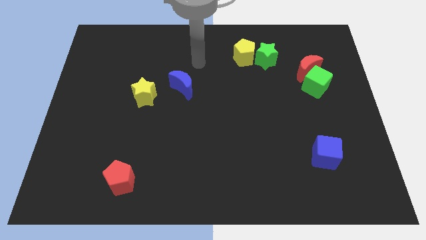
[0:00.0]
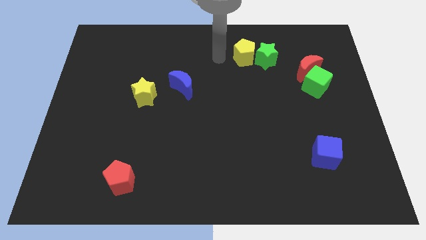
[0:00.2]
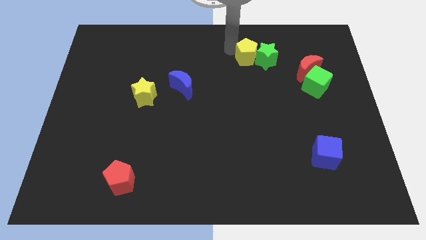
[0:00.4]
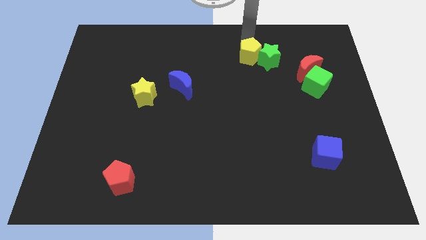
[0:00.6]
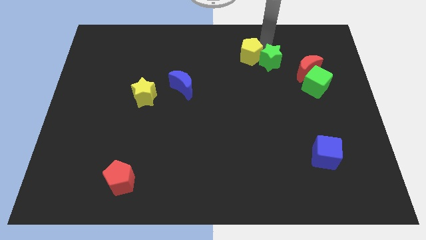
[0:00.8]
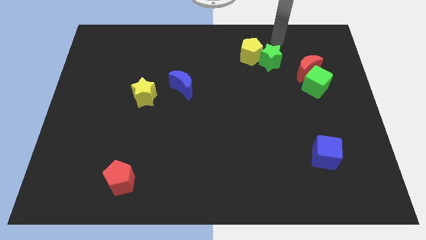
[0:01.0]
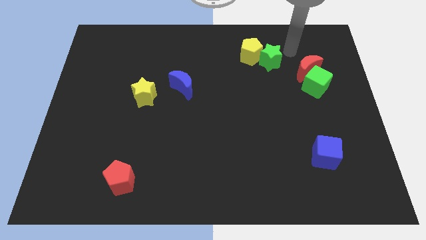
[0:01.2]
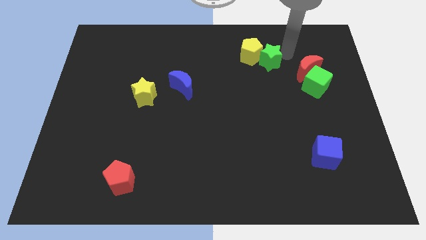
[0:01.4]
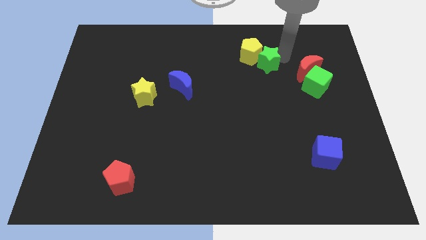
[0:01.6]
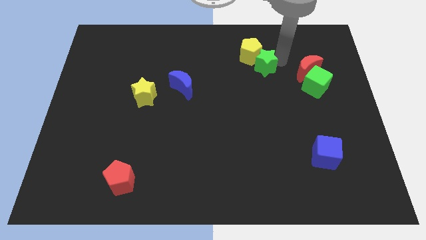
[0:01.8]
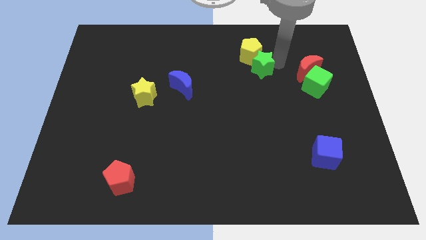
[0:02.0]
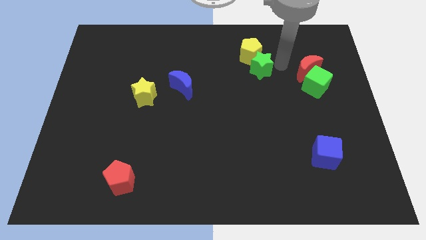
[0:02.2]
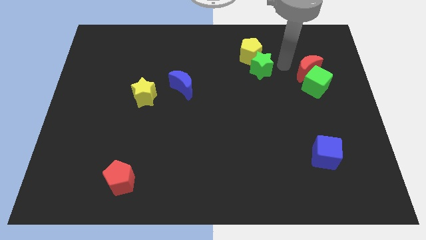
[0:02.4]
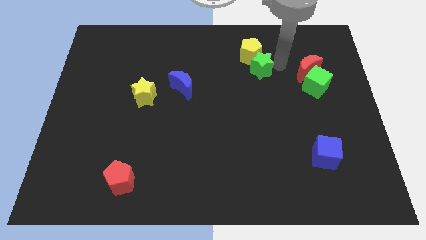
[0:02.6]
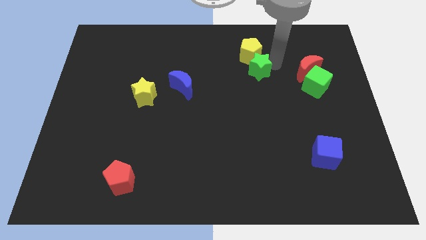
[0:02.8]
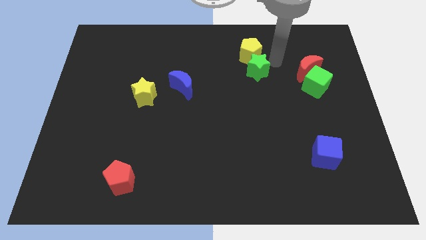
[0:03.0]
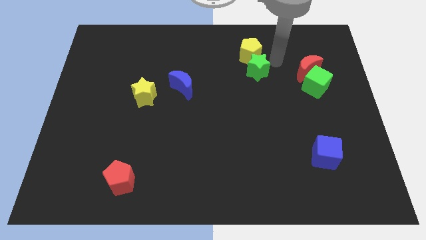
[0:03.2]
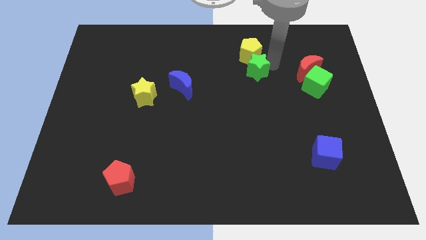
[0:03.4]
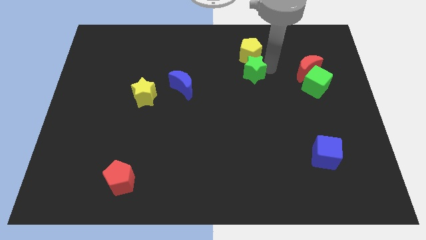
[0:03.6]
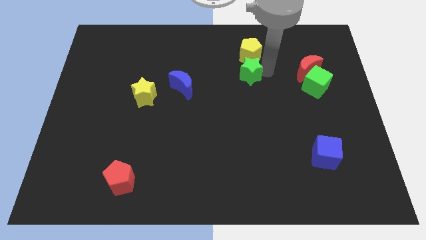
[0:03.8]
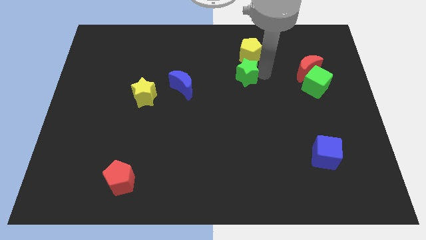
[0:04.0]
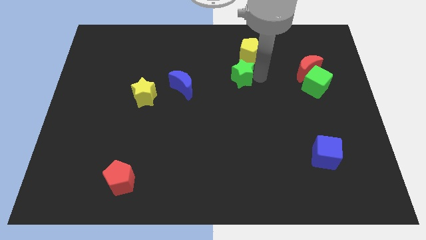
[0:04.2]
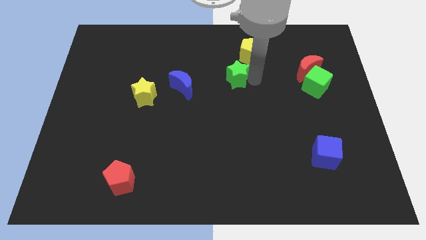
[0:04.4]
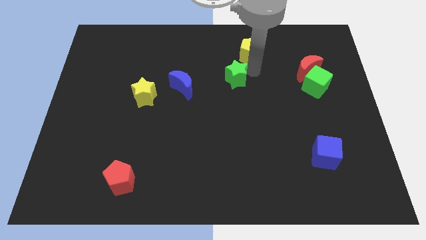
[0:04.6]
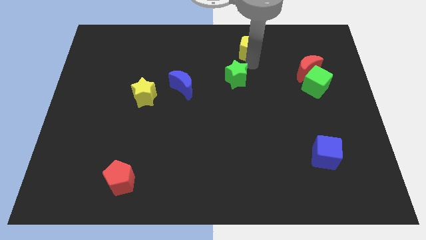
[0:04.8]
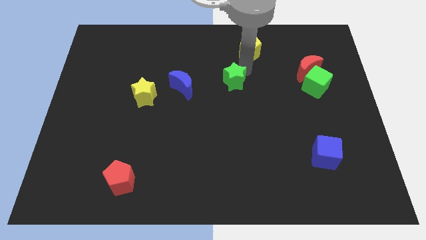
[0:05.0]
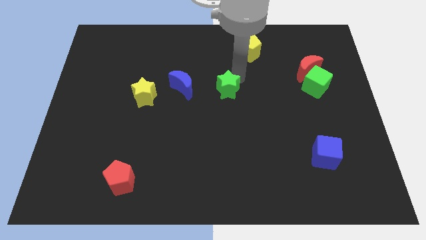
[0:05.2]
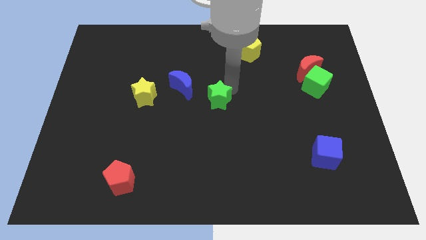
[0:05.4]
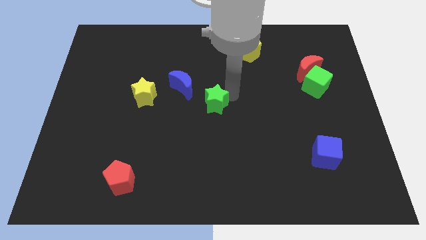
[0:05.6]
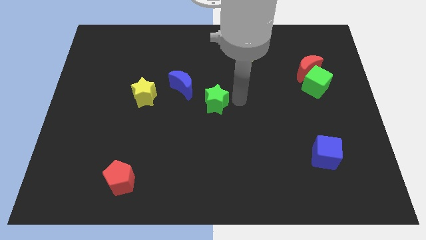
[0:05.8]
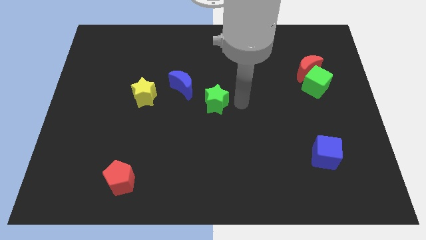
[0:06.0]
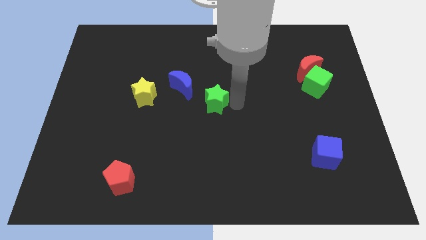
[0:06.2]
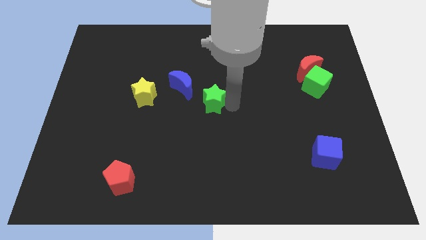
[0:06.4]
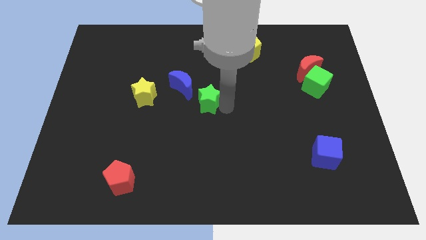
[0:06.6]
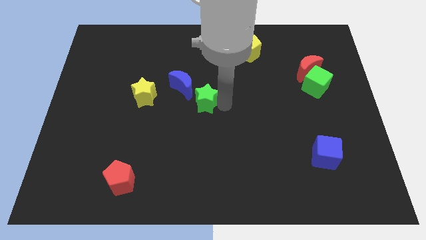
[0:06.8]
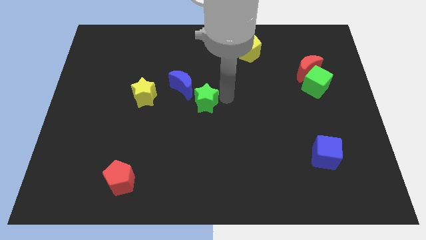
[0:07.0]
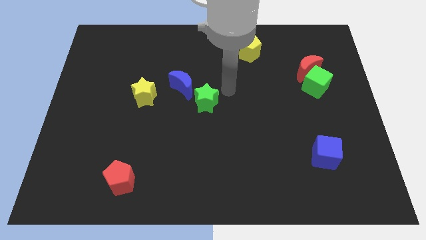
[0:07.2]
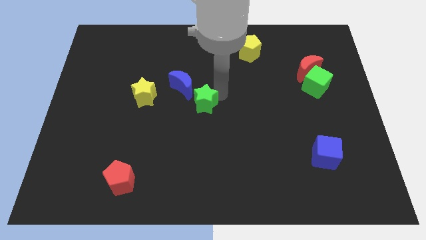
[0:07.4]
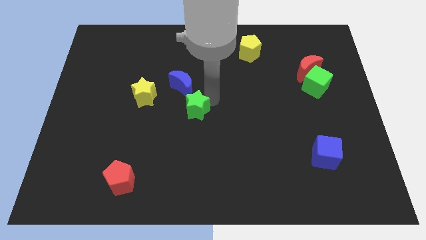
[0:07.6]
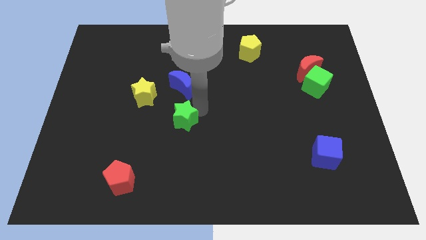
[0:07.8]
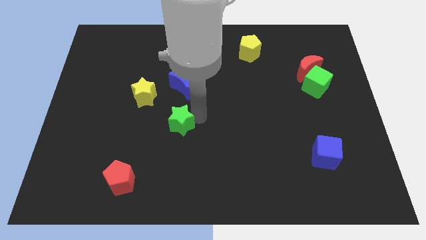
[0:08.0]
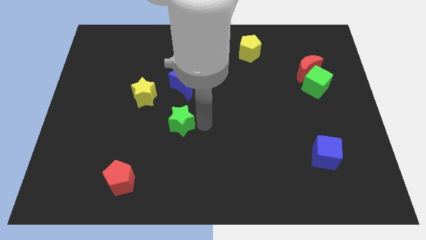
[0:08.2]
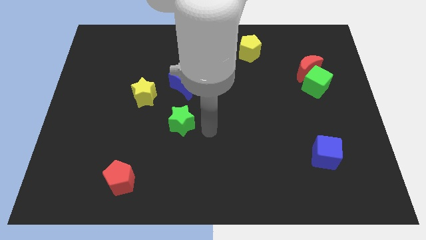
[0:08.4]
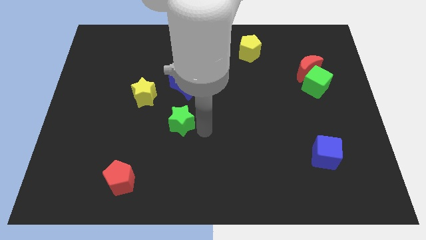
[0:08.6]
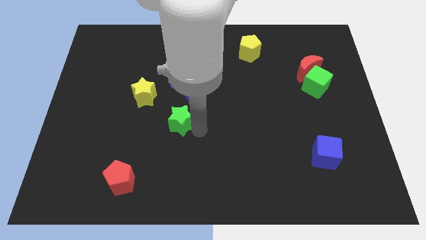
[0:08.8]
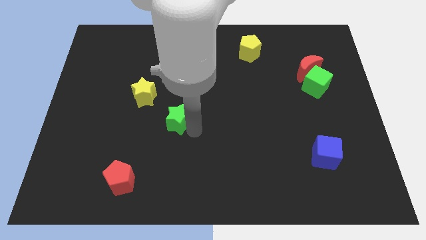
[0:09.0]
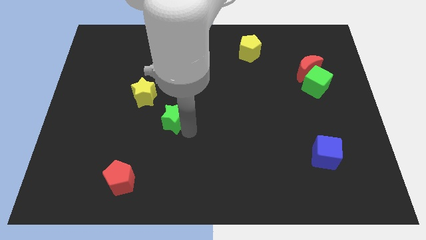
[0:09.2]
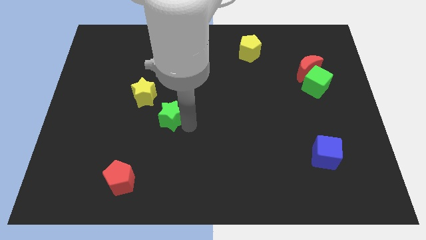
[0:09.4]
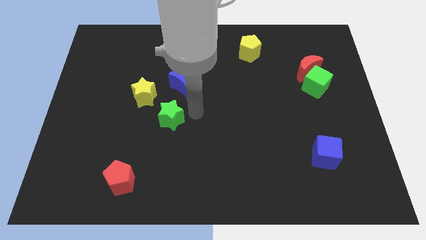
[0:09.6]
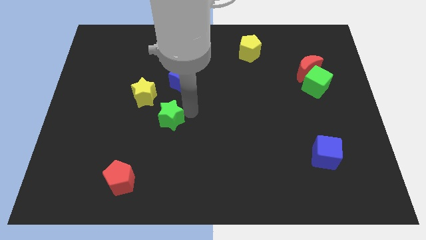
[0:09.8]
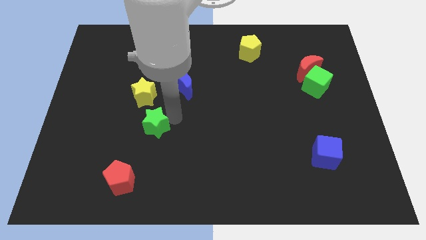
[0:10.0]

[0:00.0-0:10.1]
put the green star to the bottom of the yellow star

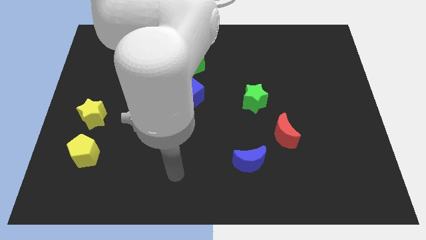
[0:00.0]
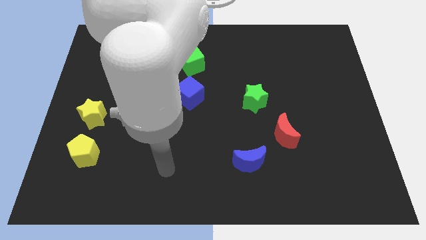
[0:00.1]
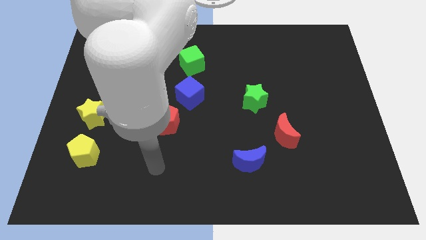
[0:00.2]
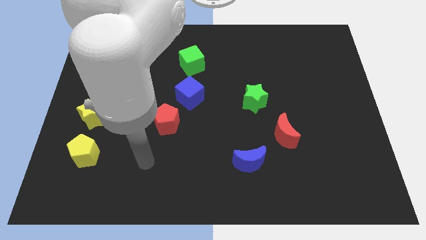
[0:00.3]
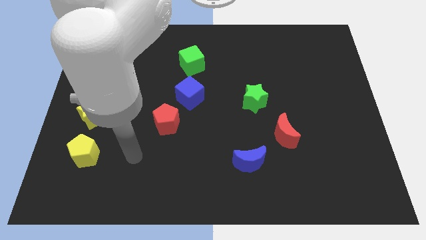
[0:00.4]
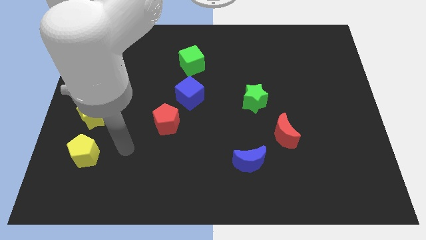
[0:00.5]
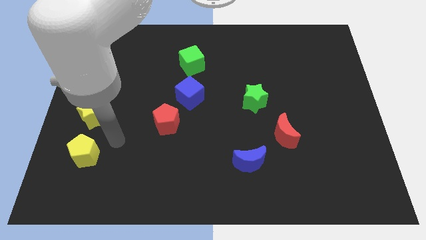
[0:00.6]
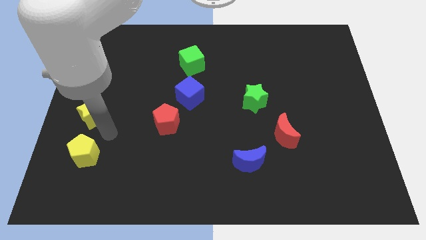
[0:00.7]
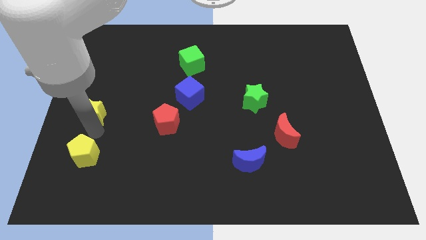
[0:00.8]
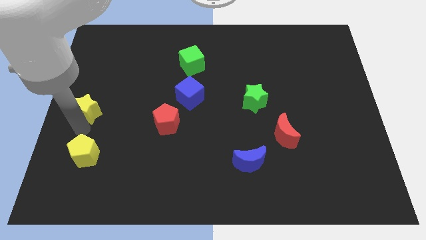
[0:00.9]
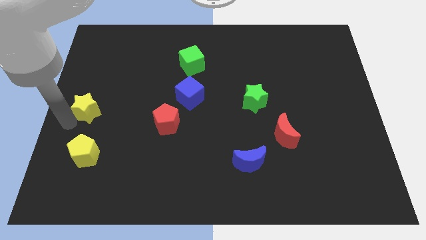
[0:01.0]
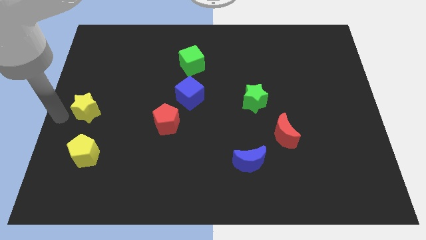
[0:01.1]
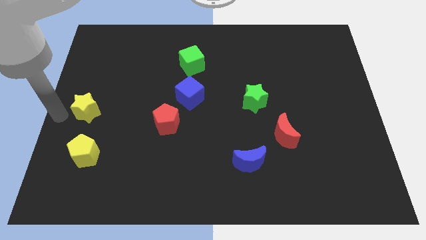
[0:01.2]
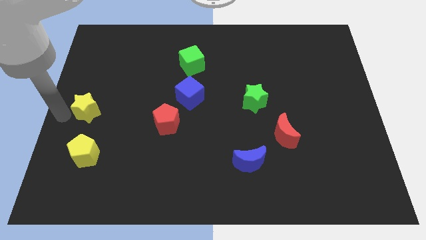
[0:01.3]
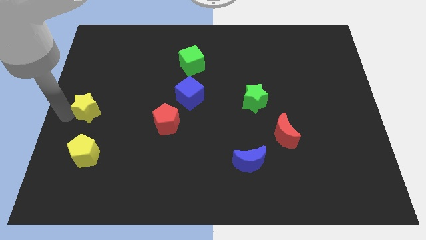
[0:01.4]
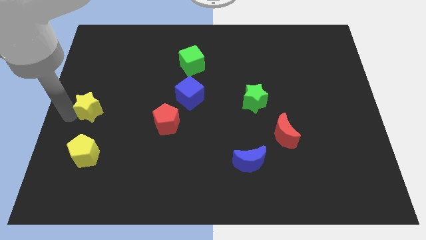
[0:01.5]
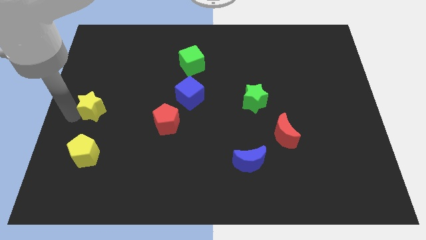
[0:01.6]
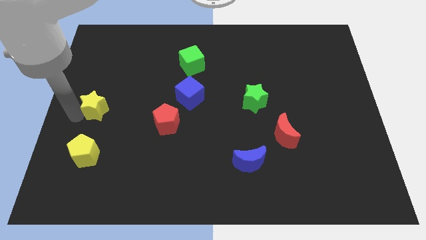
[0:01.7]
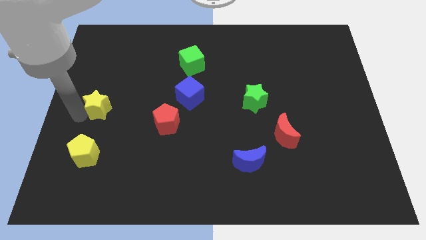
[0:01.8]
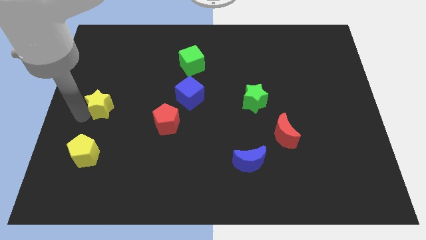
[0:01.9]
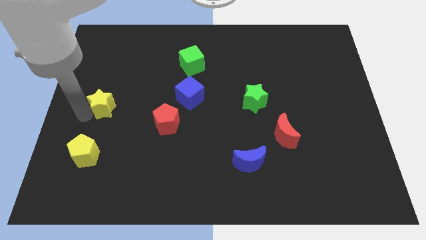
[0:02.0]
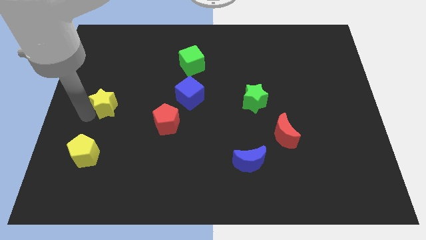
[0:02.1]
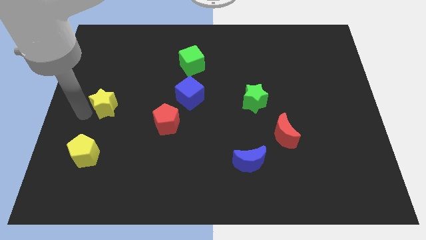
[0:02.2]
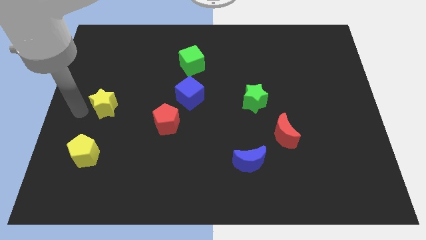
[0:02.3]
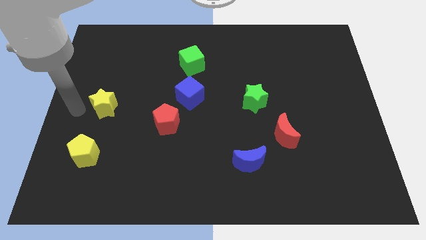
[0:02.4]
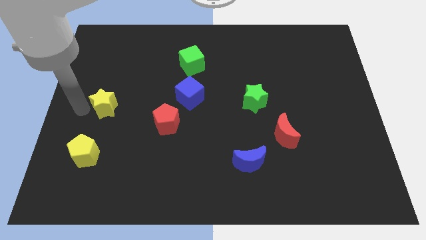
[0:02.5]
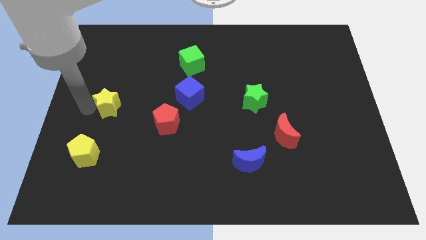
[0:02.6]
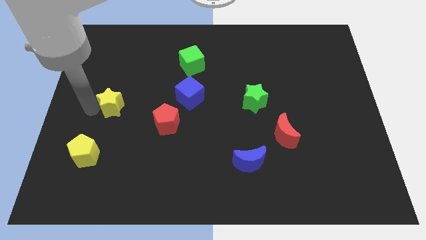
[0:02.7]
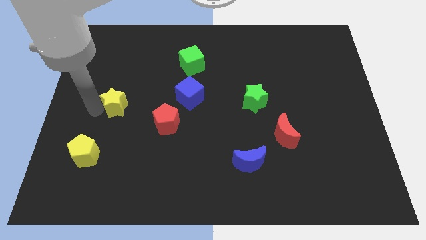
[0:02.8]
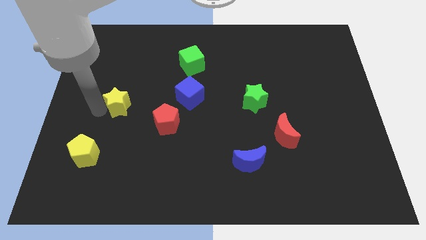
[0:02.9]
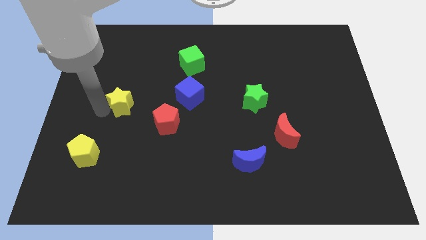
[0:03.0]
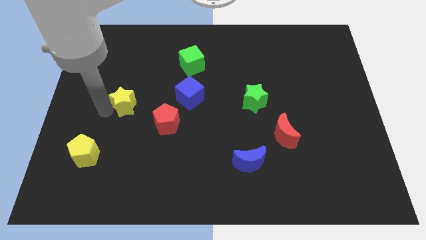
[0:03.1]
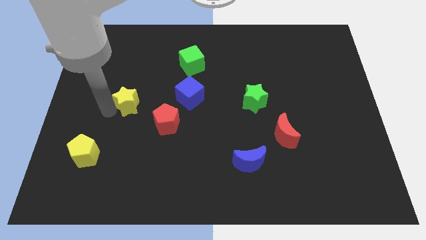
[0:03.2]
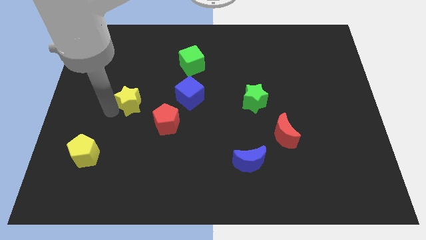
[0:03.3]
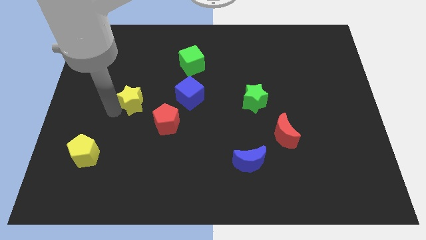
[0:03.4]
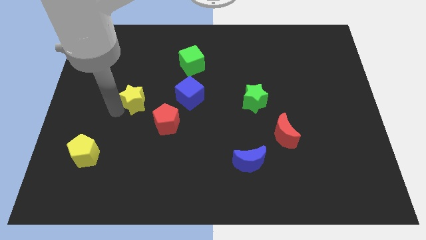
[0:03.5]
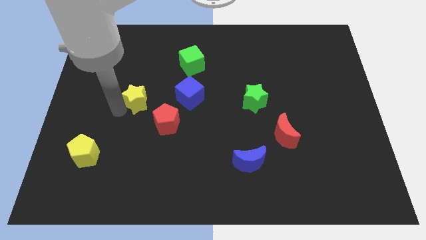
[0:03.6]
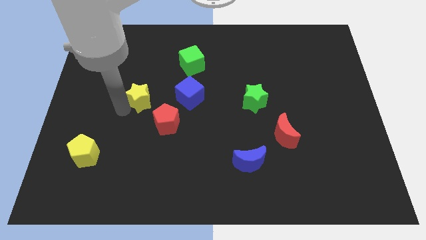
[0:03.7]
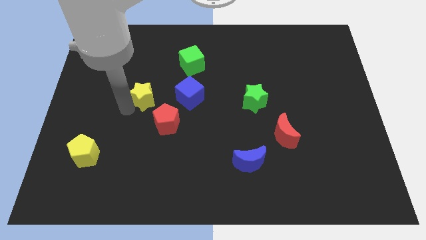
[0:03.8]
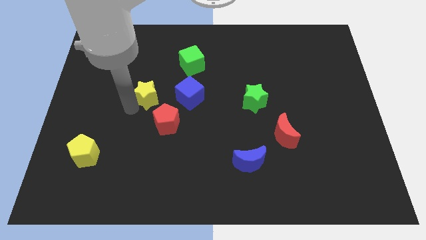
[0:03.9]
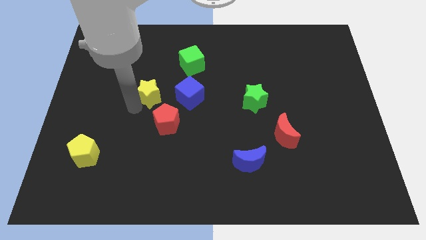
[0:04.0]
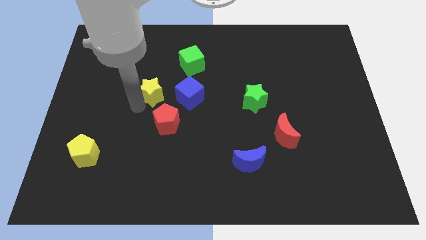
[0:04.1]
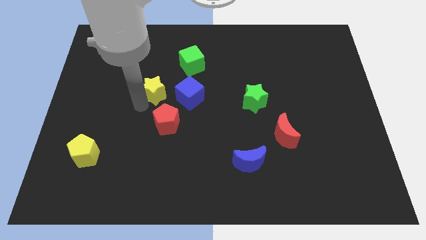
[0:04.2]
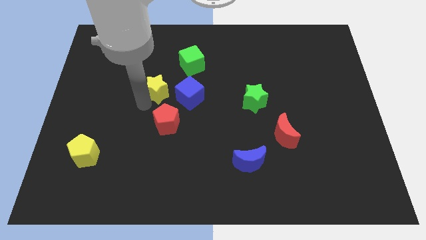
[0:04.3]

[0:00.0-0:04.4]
put the yellow star diagonally up and to the left of the blue cube
